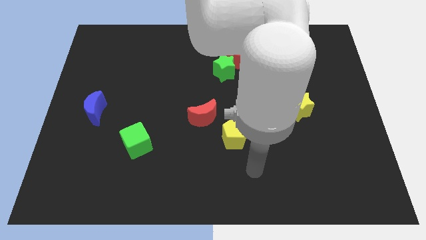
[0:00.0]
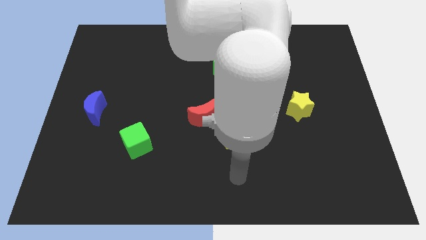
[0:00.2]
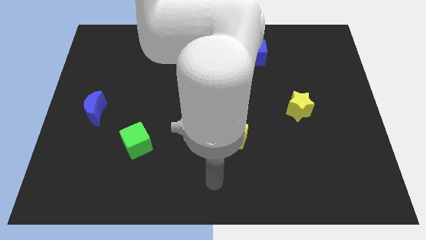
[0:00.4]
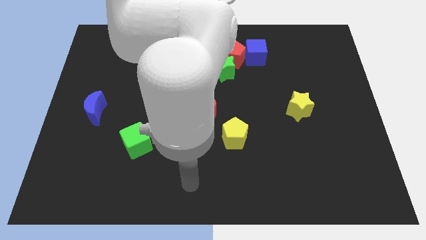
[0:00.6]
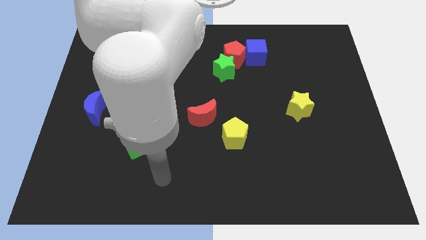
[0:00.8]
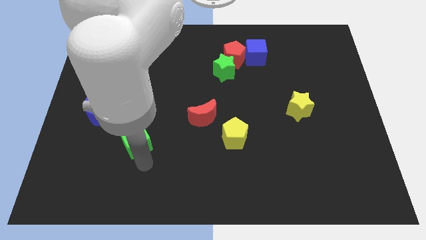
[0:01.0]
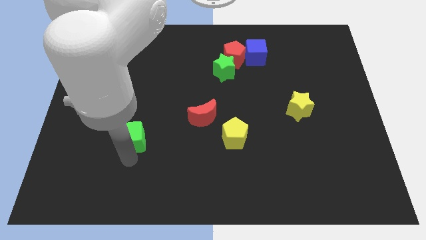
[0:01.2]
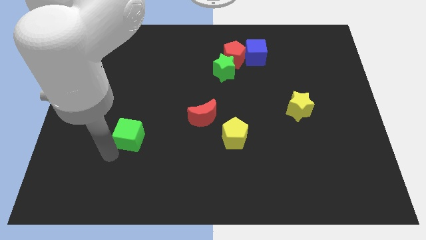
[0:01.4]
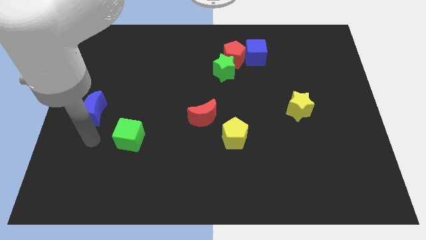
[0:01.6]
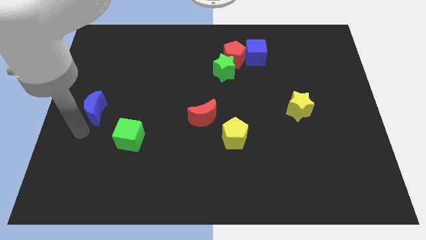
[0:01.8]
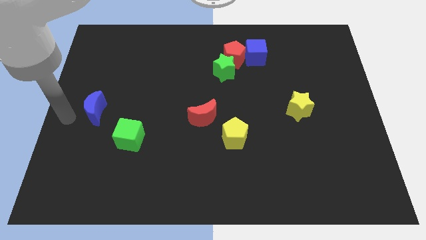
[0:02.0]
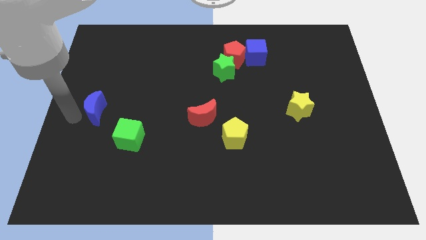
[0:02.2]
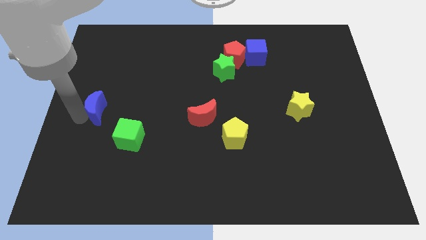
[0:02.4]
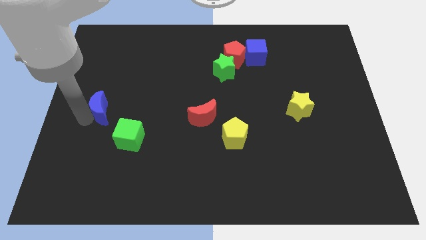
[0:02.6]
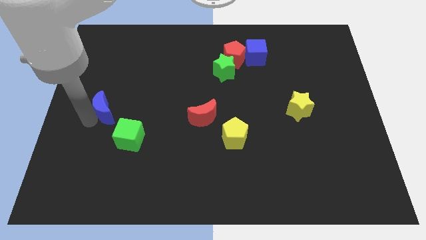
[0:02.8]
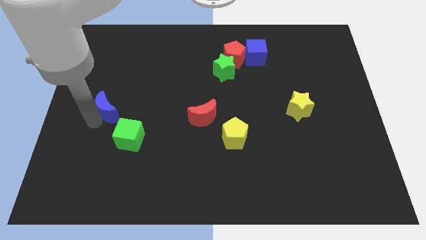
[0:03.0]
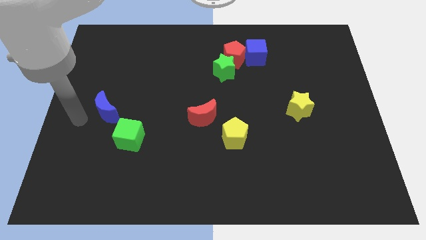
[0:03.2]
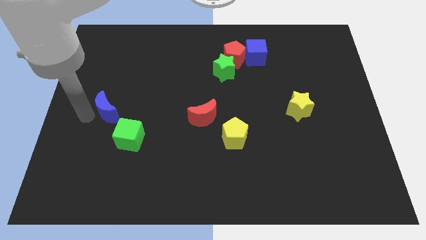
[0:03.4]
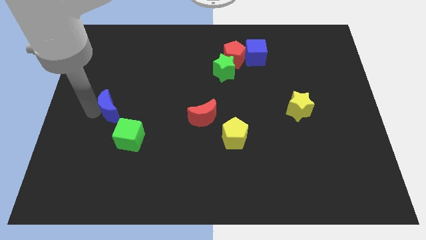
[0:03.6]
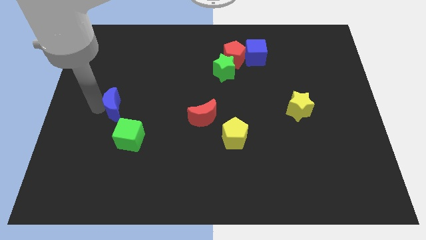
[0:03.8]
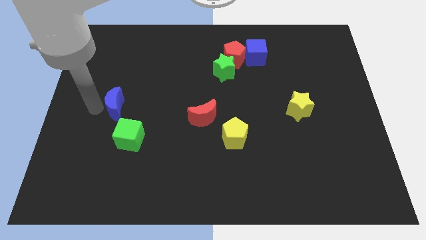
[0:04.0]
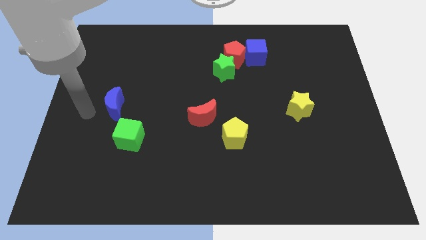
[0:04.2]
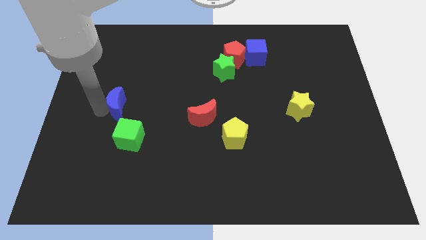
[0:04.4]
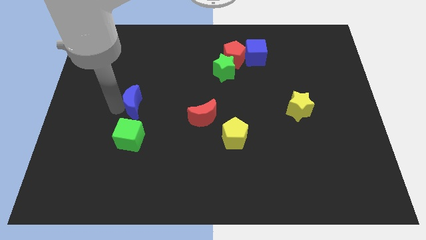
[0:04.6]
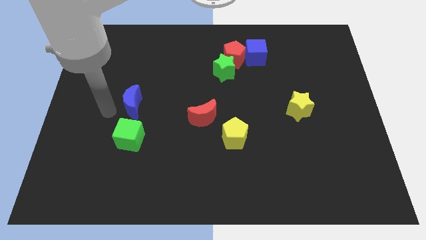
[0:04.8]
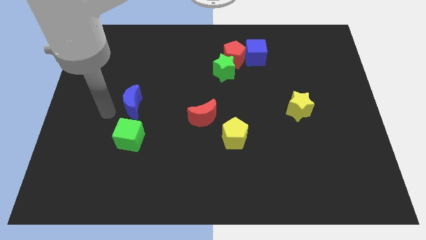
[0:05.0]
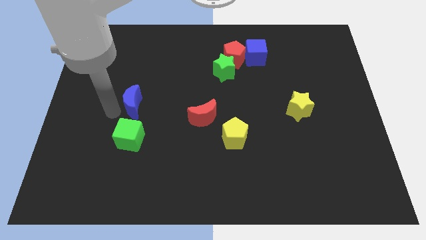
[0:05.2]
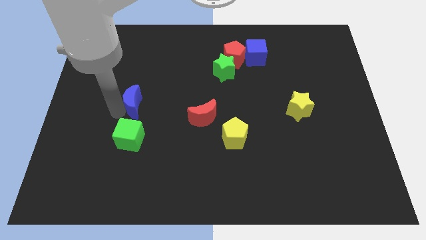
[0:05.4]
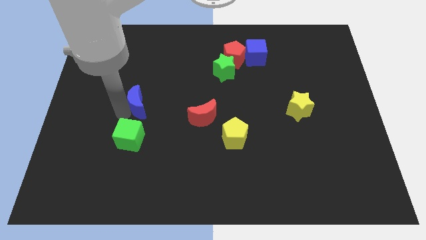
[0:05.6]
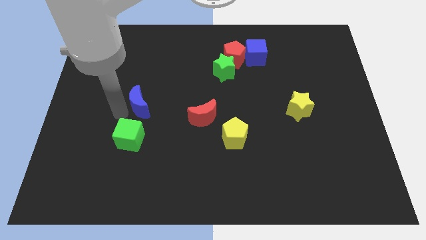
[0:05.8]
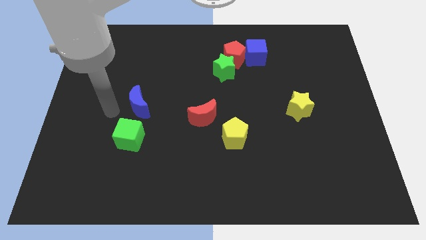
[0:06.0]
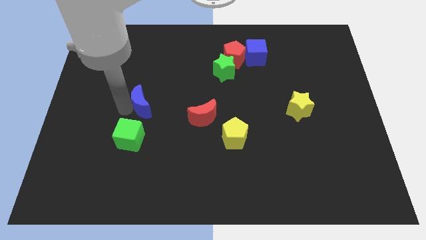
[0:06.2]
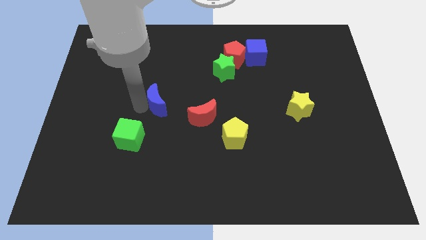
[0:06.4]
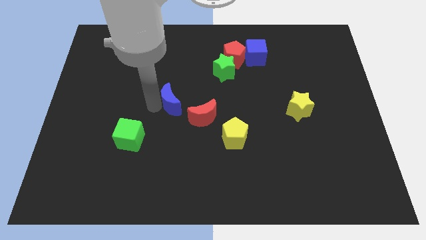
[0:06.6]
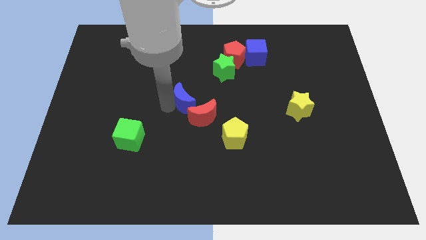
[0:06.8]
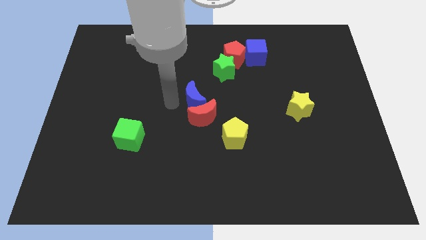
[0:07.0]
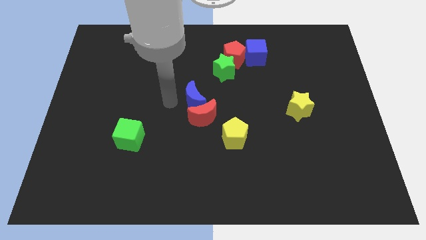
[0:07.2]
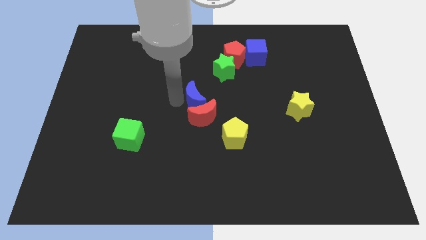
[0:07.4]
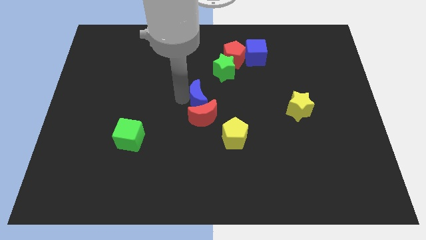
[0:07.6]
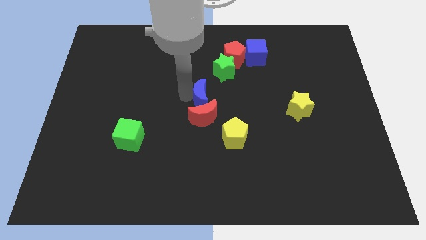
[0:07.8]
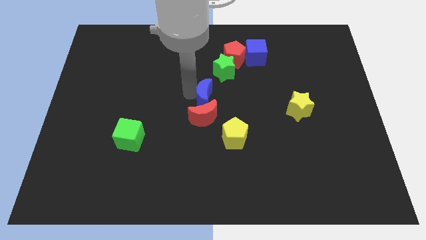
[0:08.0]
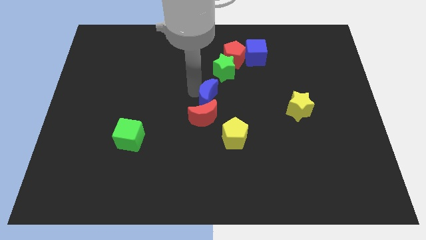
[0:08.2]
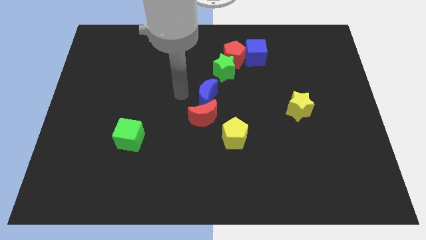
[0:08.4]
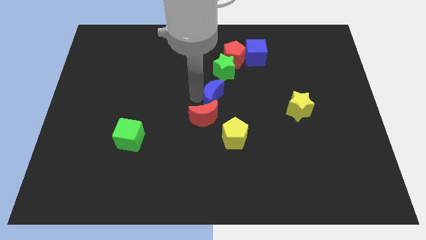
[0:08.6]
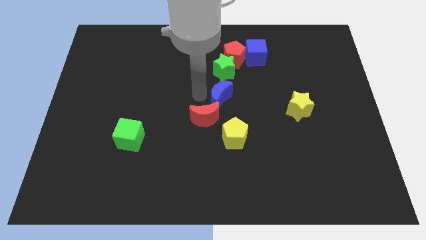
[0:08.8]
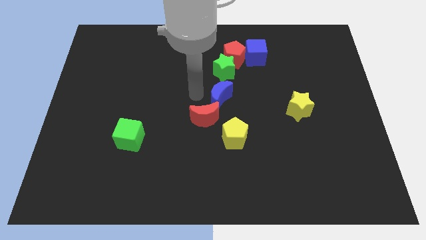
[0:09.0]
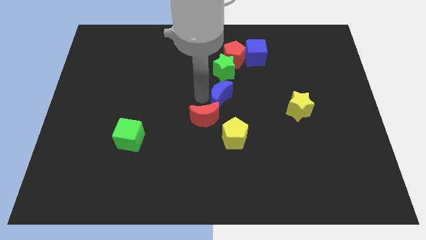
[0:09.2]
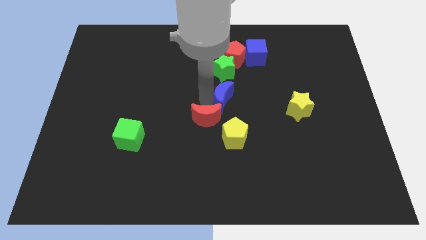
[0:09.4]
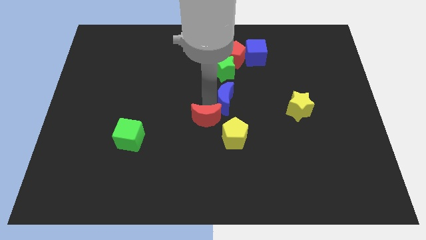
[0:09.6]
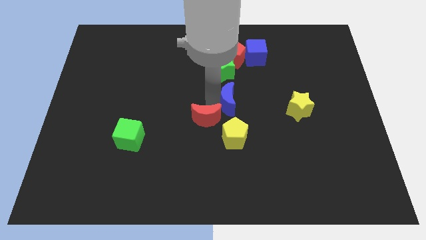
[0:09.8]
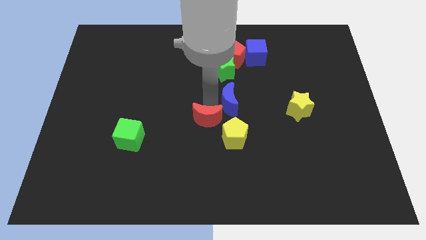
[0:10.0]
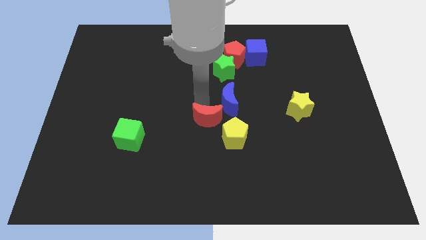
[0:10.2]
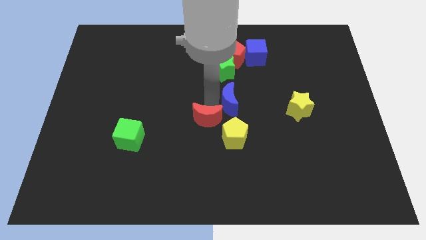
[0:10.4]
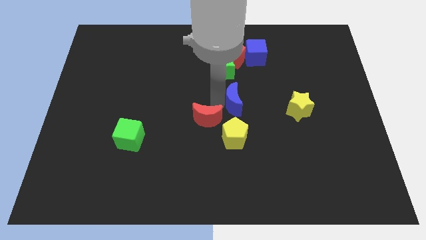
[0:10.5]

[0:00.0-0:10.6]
put the blue moon to the left of the yellow star

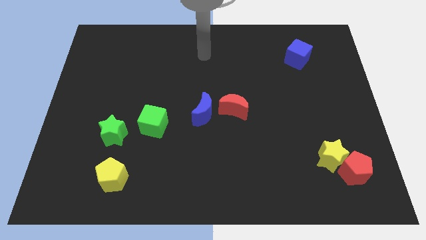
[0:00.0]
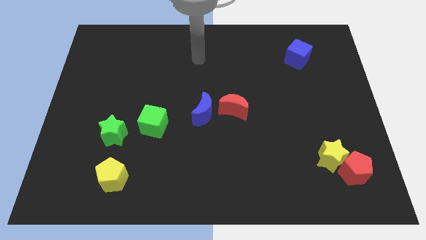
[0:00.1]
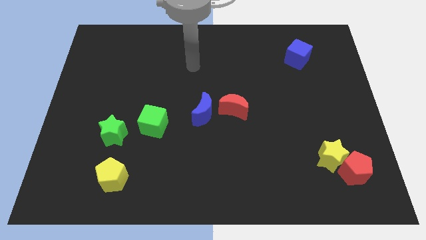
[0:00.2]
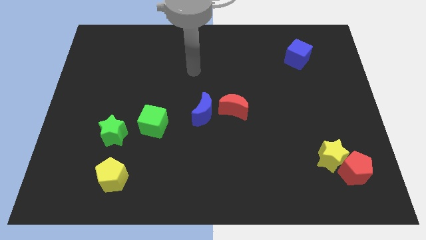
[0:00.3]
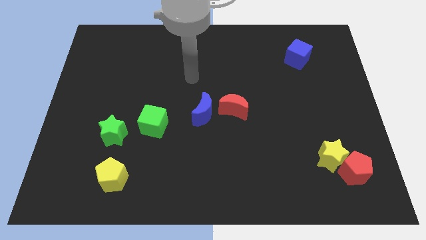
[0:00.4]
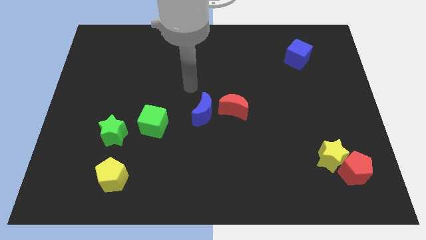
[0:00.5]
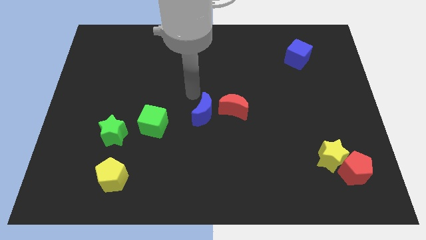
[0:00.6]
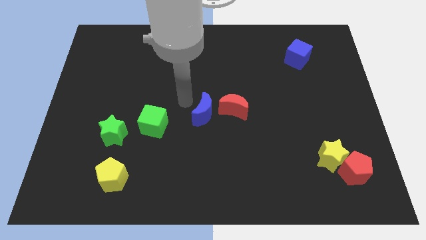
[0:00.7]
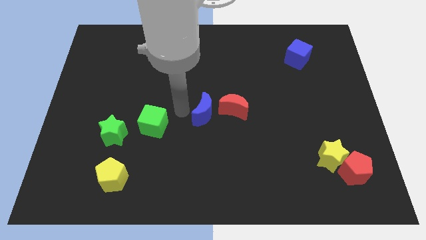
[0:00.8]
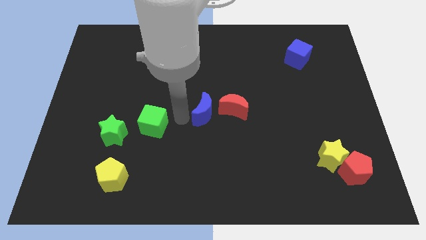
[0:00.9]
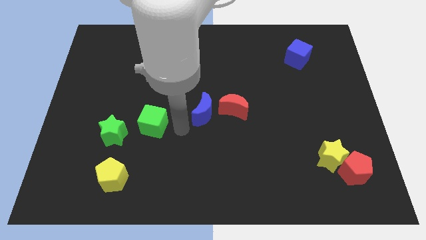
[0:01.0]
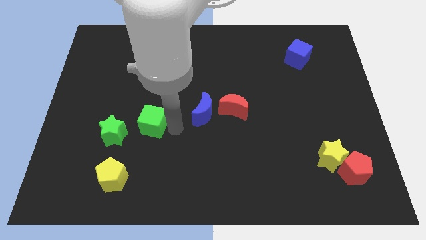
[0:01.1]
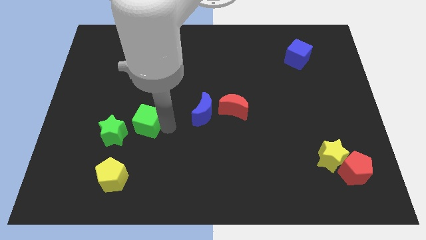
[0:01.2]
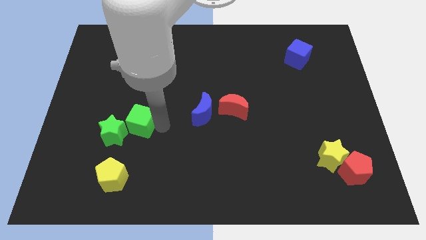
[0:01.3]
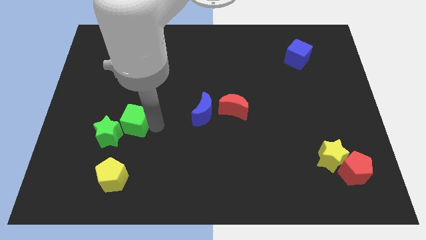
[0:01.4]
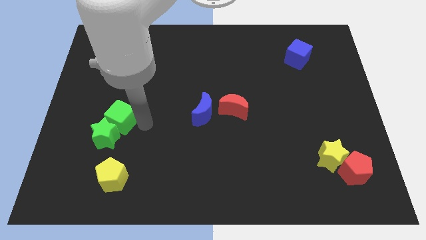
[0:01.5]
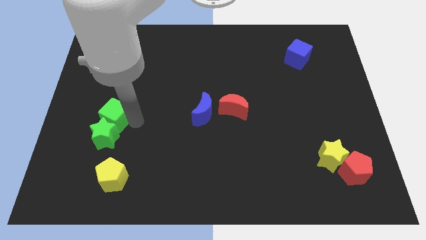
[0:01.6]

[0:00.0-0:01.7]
move the green cube diagonally up and to the left of the green star

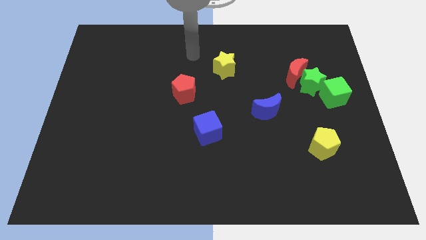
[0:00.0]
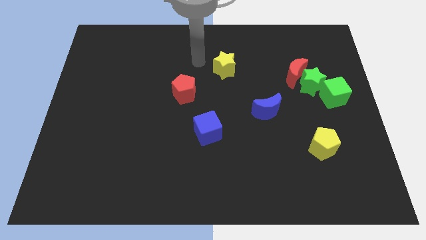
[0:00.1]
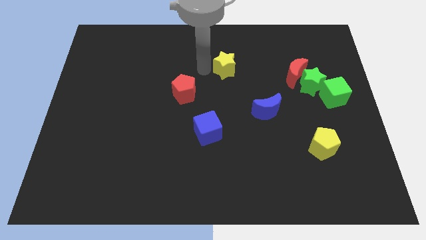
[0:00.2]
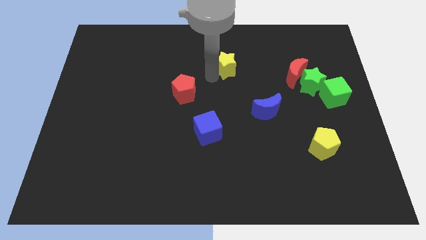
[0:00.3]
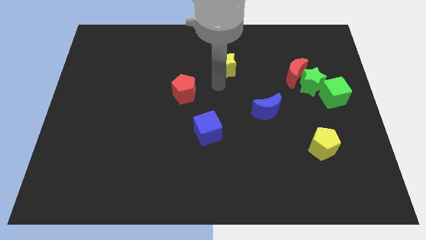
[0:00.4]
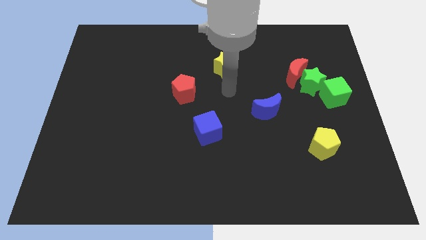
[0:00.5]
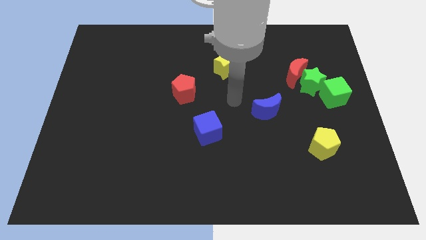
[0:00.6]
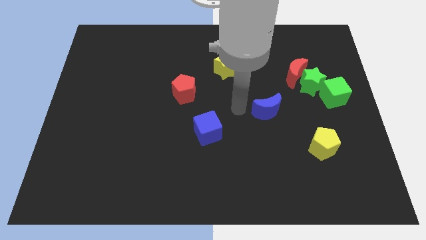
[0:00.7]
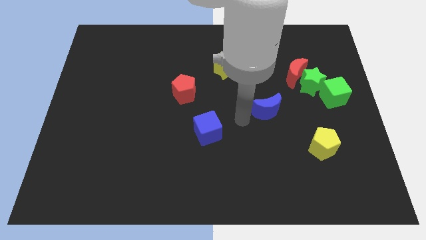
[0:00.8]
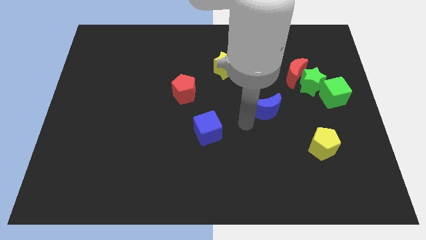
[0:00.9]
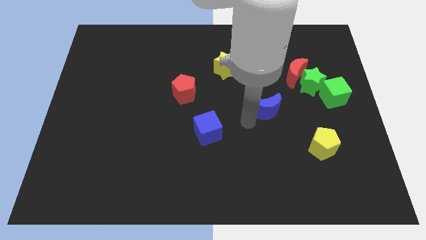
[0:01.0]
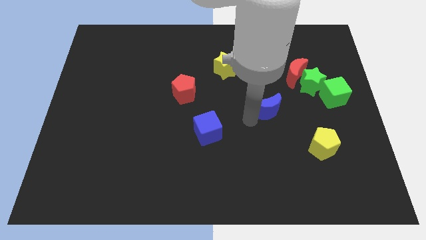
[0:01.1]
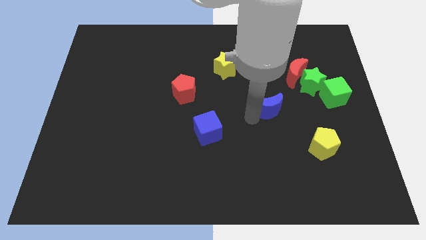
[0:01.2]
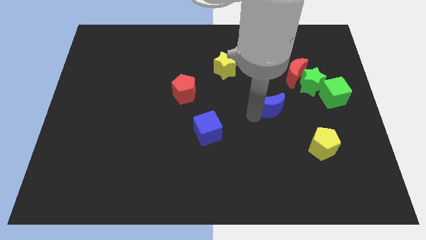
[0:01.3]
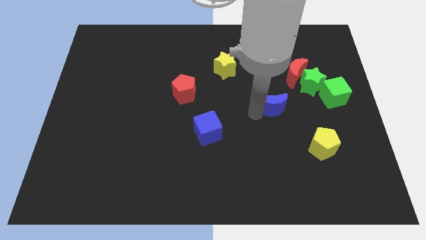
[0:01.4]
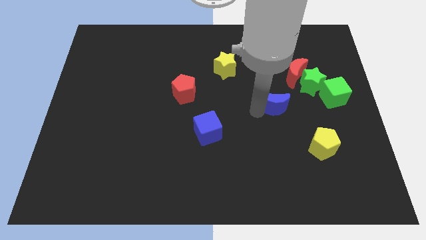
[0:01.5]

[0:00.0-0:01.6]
push the blue moon to the left of the green cube
